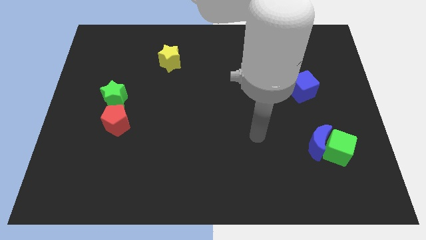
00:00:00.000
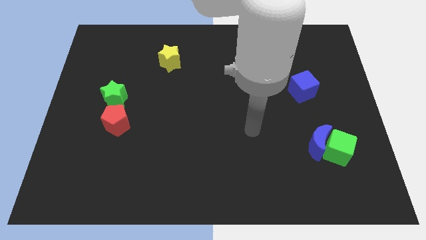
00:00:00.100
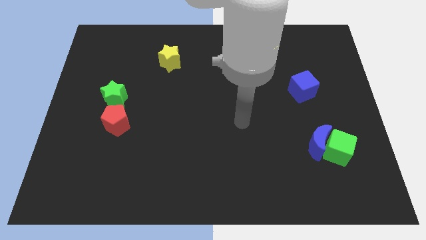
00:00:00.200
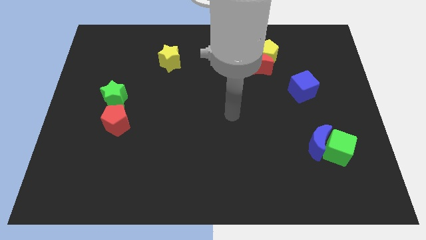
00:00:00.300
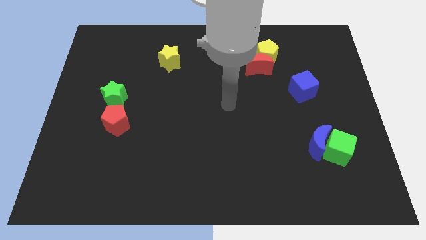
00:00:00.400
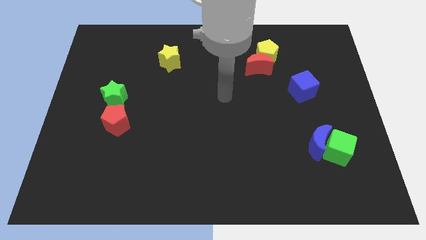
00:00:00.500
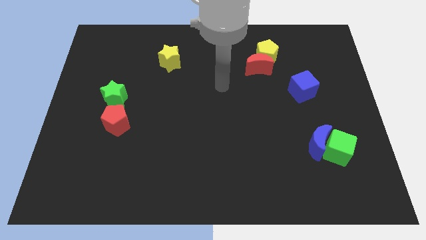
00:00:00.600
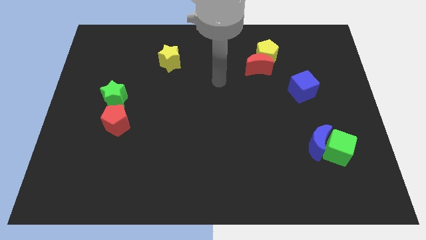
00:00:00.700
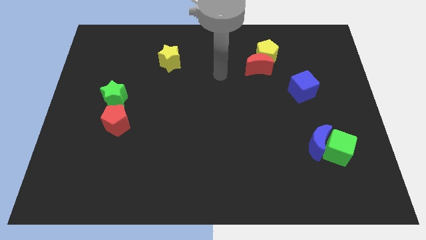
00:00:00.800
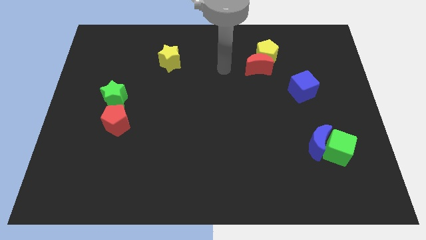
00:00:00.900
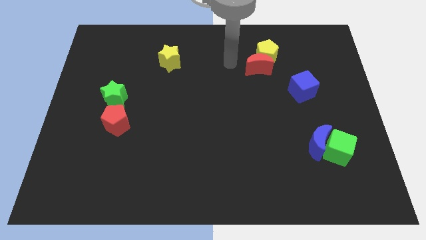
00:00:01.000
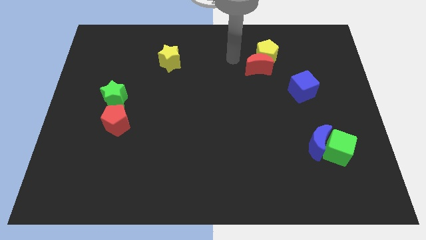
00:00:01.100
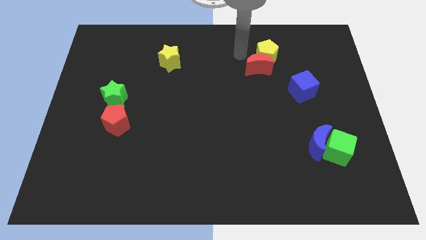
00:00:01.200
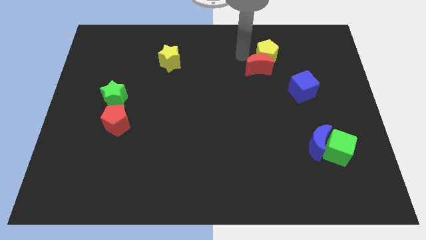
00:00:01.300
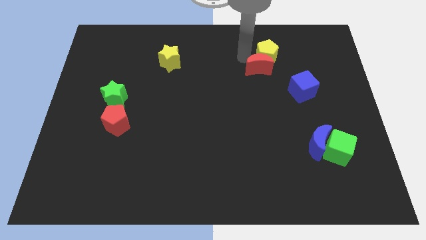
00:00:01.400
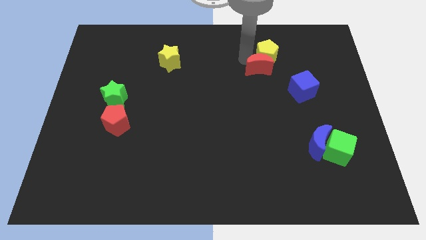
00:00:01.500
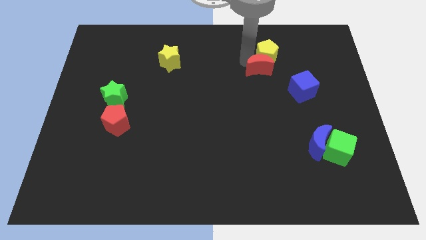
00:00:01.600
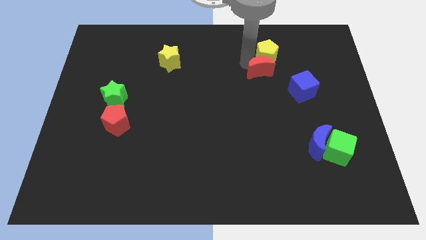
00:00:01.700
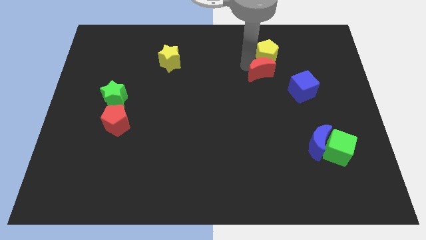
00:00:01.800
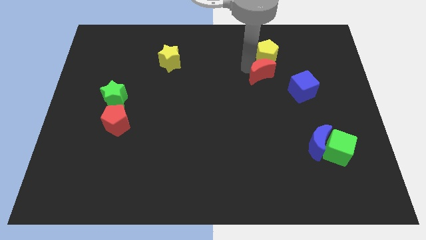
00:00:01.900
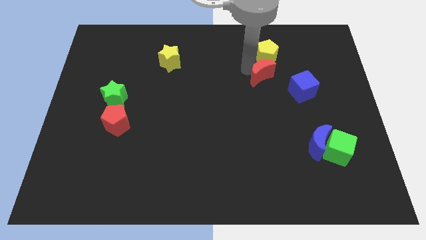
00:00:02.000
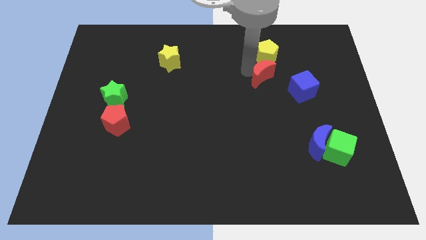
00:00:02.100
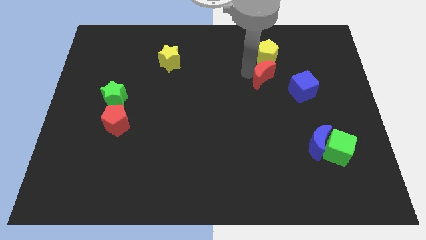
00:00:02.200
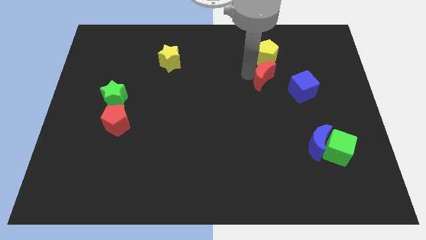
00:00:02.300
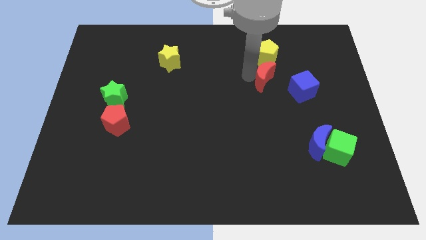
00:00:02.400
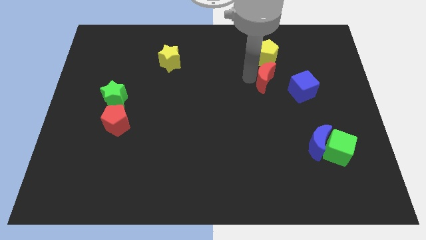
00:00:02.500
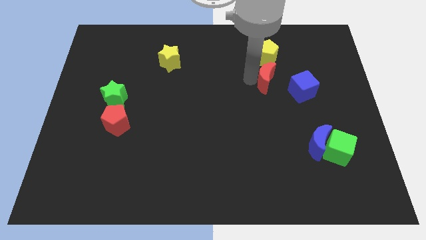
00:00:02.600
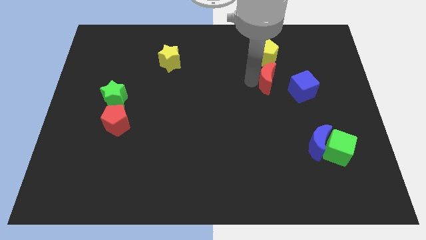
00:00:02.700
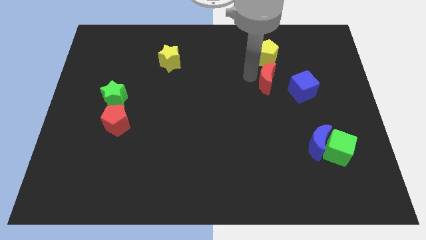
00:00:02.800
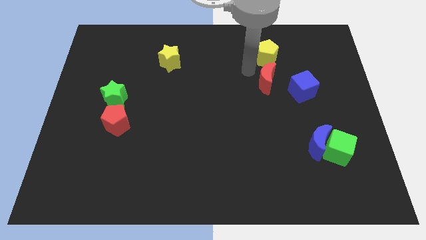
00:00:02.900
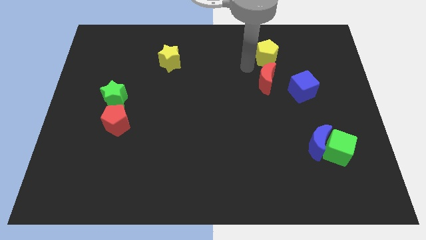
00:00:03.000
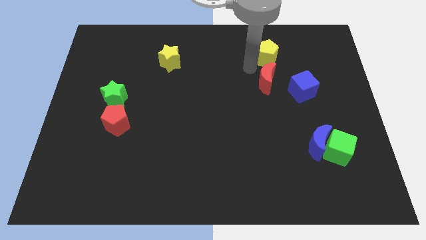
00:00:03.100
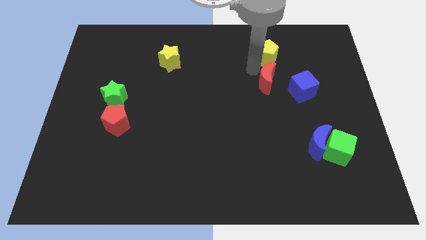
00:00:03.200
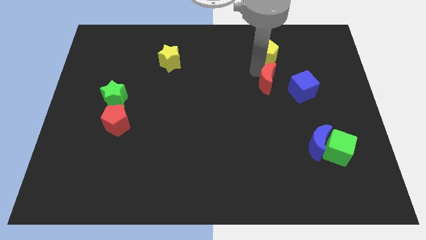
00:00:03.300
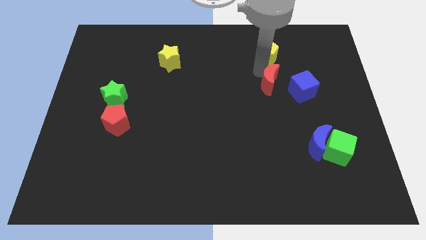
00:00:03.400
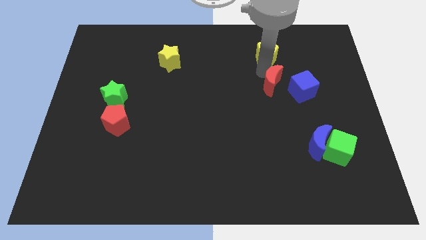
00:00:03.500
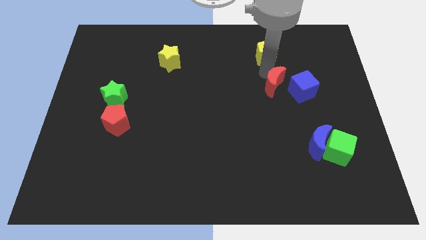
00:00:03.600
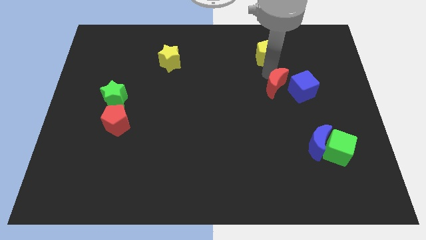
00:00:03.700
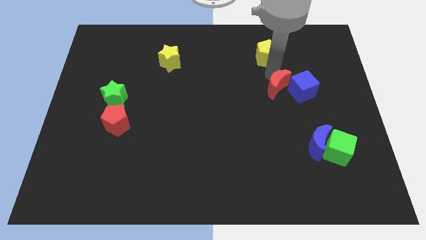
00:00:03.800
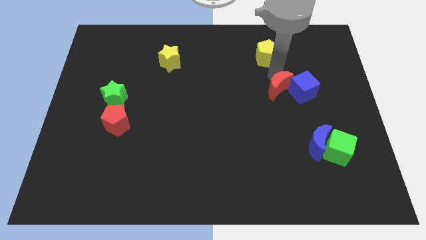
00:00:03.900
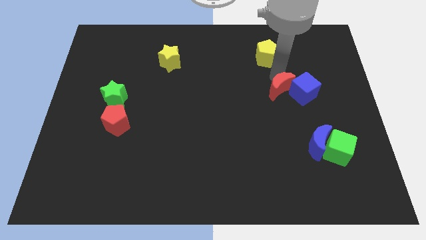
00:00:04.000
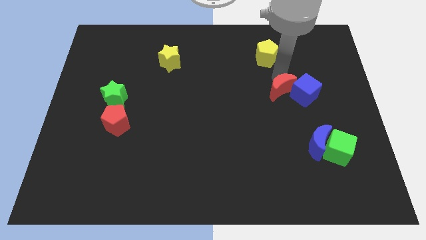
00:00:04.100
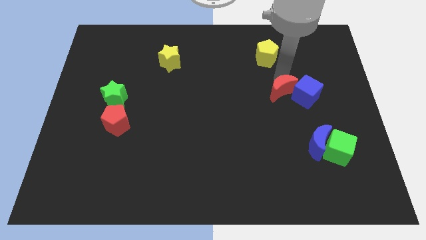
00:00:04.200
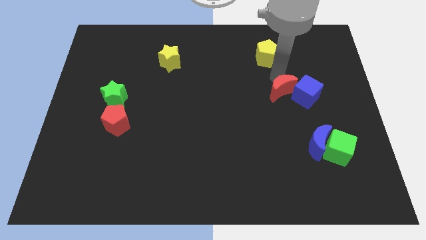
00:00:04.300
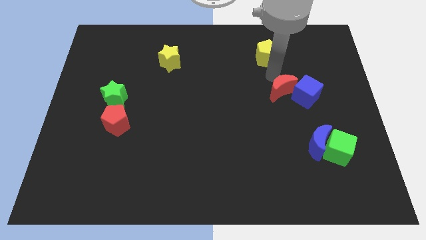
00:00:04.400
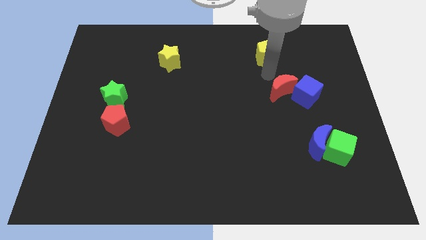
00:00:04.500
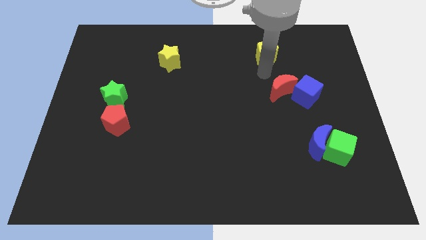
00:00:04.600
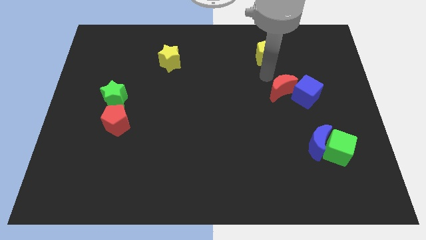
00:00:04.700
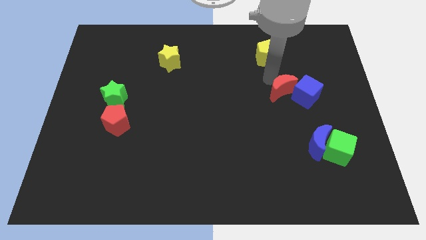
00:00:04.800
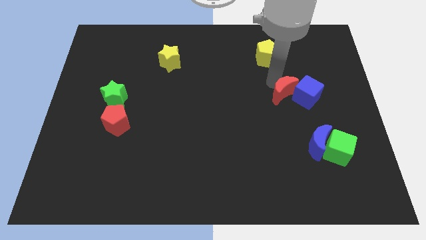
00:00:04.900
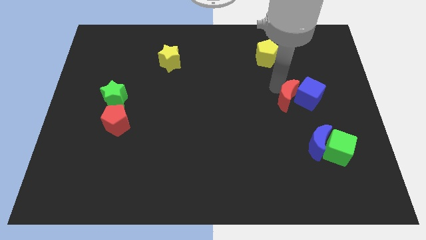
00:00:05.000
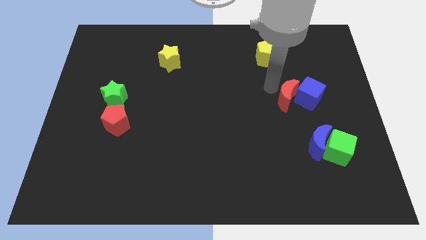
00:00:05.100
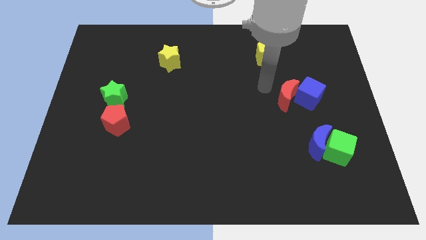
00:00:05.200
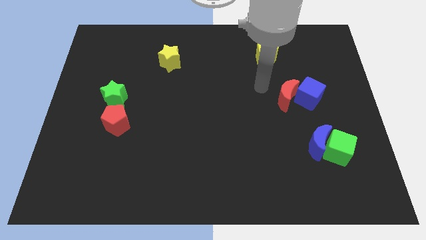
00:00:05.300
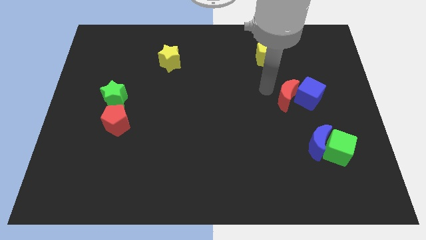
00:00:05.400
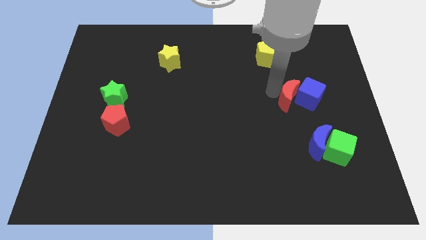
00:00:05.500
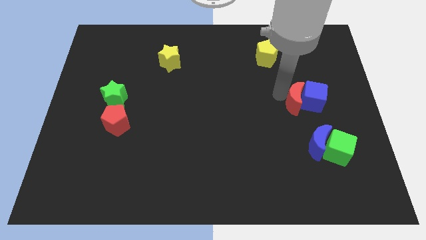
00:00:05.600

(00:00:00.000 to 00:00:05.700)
slide the red moon to the top of the blue moon

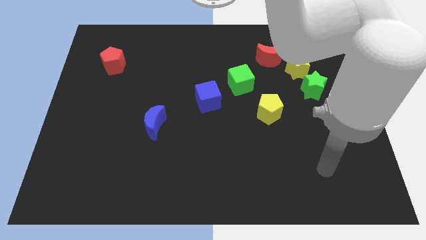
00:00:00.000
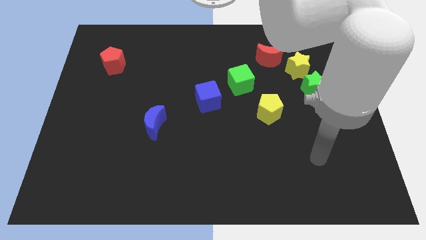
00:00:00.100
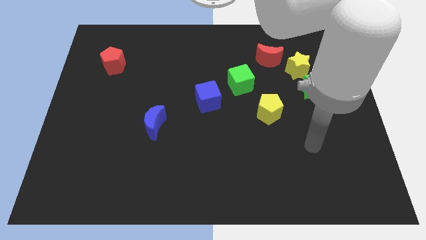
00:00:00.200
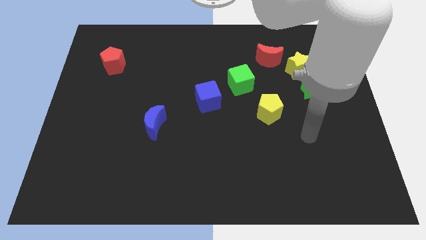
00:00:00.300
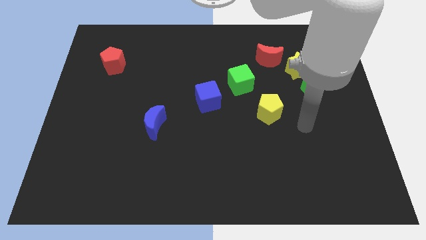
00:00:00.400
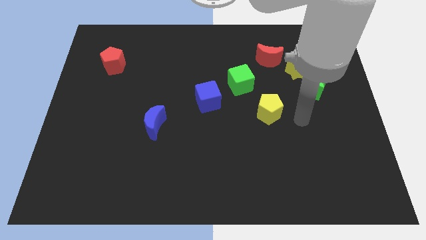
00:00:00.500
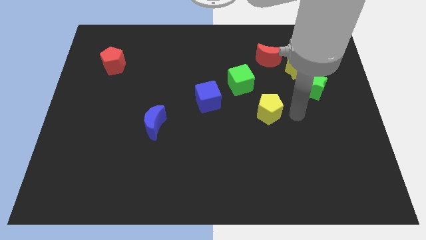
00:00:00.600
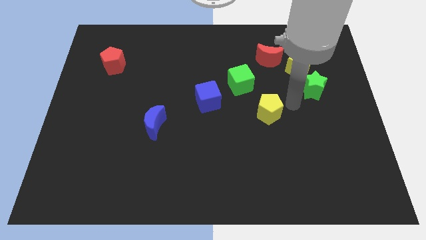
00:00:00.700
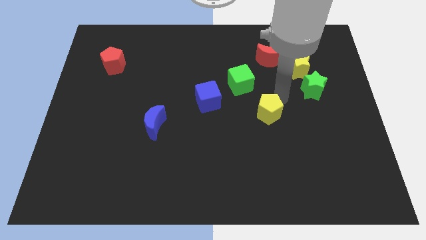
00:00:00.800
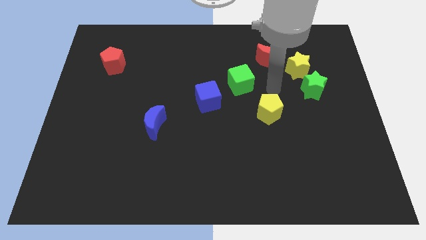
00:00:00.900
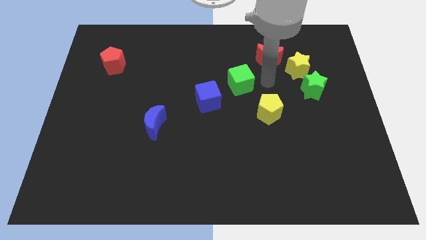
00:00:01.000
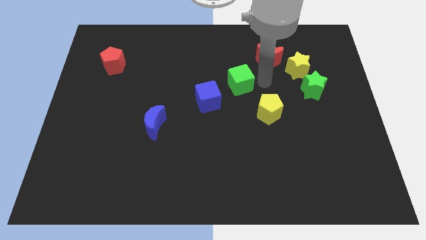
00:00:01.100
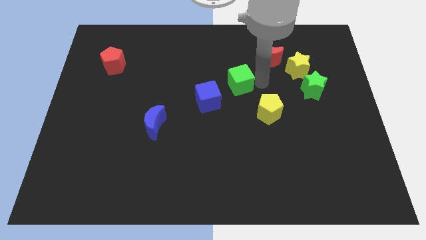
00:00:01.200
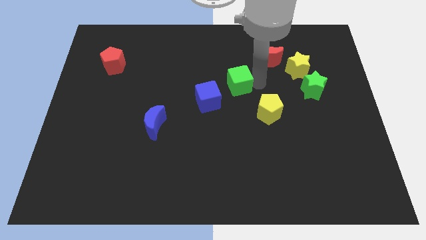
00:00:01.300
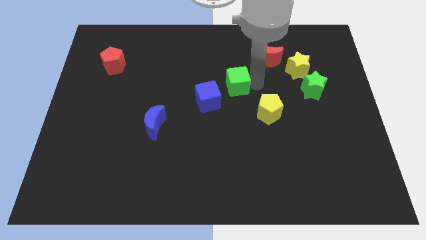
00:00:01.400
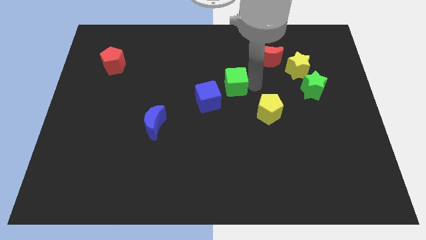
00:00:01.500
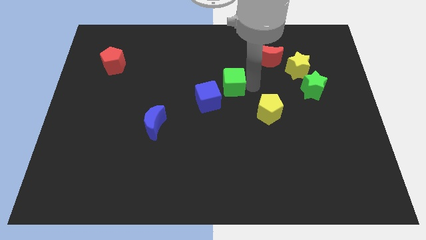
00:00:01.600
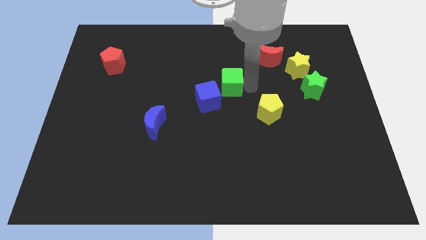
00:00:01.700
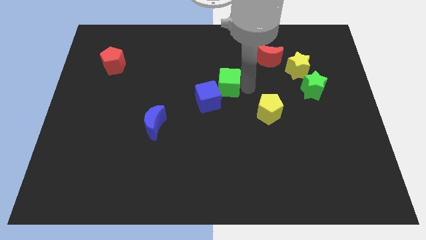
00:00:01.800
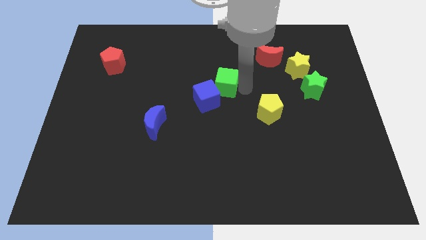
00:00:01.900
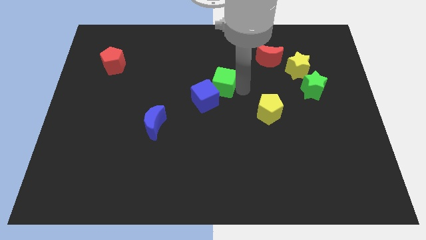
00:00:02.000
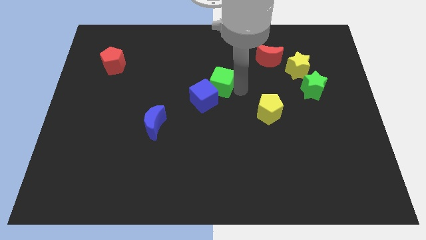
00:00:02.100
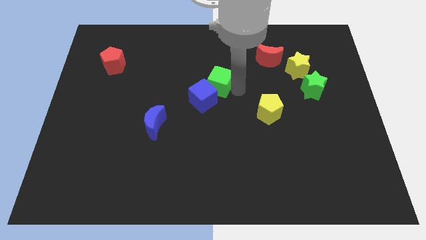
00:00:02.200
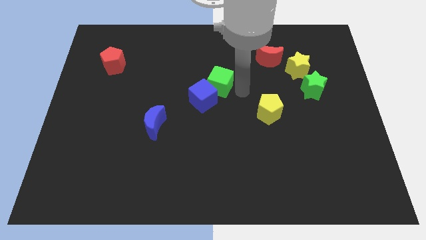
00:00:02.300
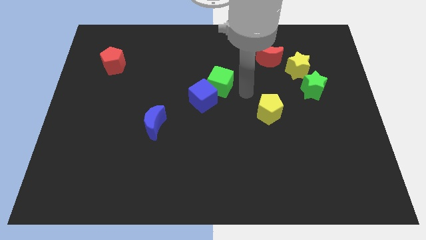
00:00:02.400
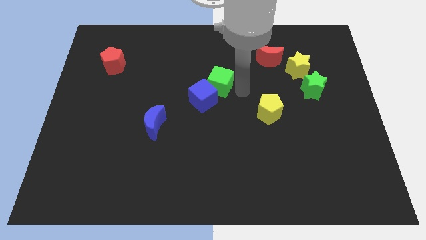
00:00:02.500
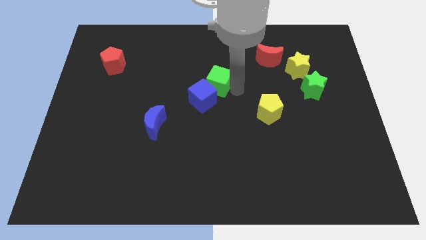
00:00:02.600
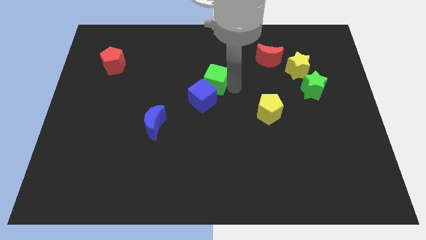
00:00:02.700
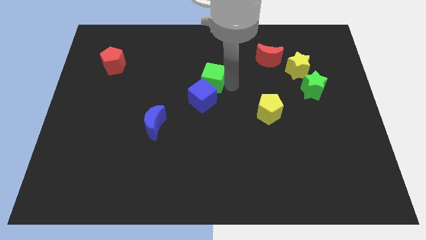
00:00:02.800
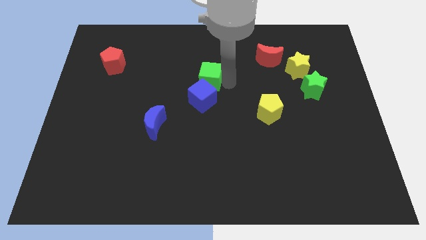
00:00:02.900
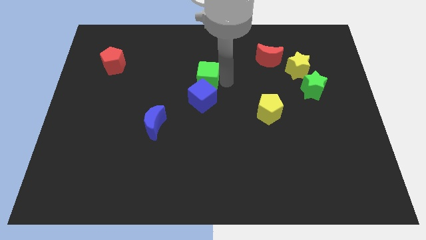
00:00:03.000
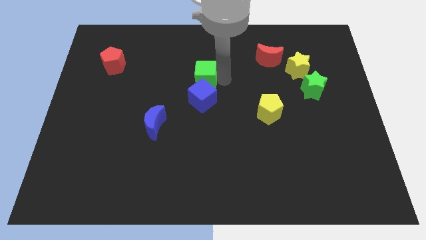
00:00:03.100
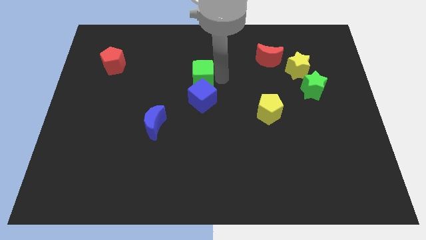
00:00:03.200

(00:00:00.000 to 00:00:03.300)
put the green cube to the top left side of the blue cube
